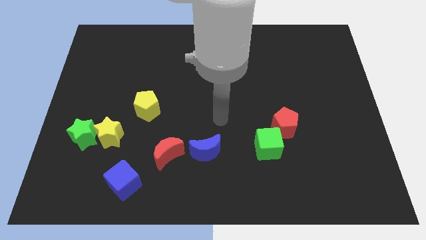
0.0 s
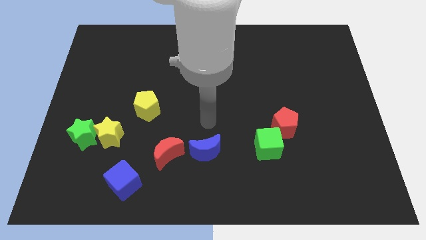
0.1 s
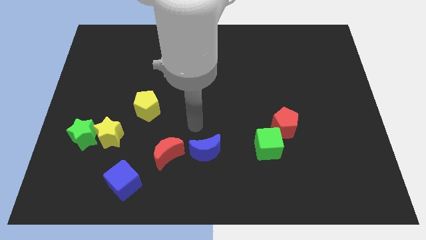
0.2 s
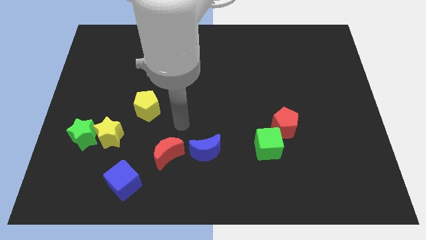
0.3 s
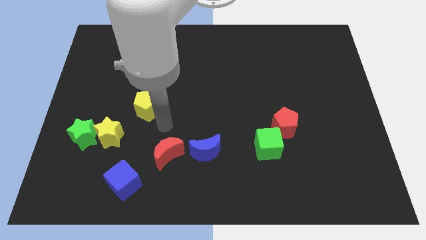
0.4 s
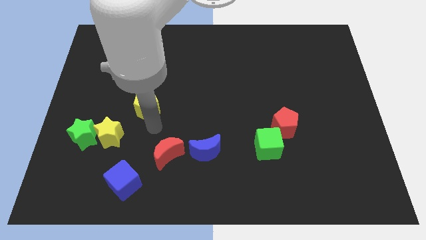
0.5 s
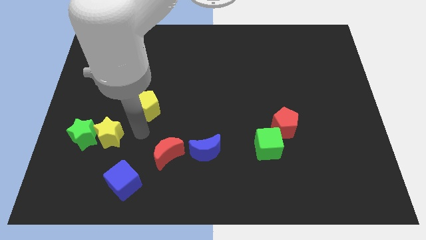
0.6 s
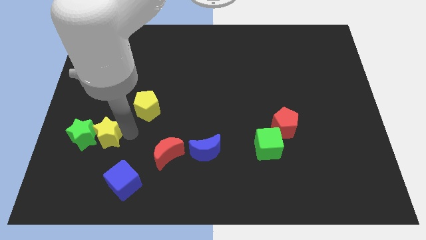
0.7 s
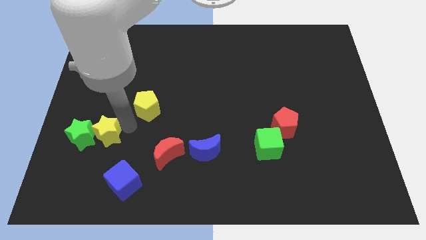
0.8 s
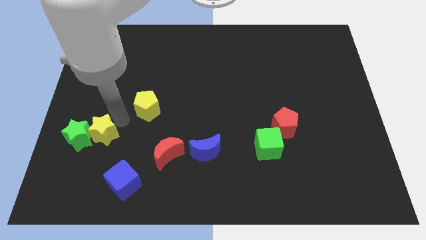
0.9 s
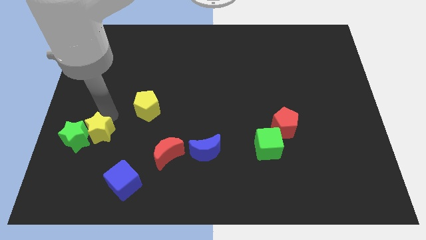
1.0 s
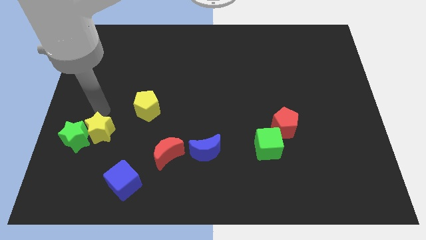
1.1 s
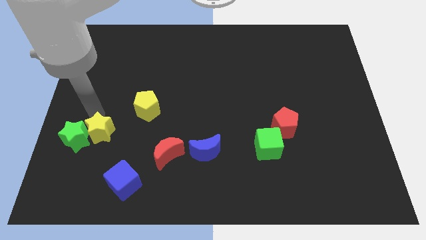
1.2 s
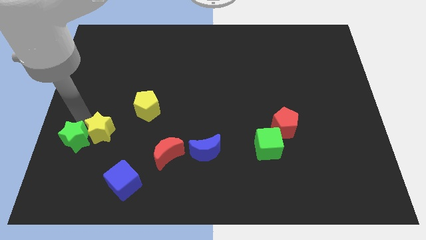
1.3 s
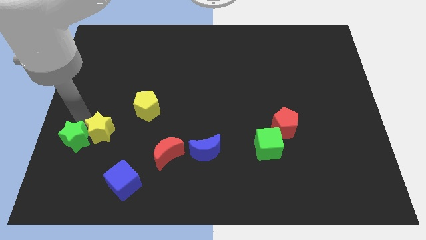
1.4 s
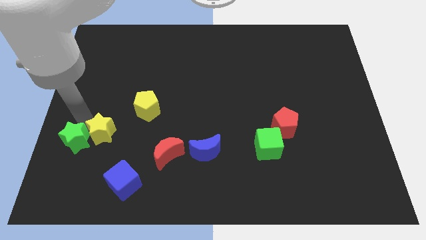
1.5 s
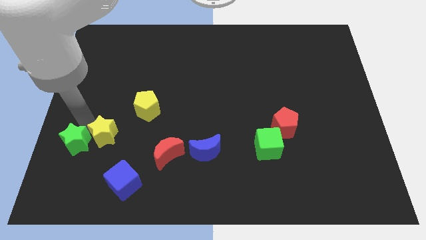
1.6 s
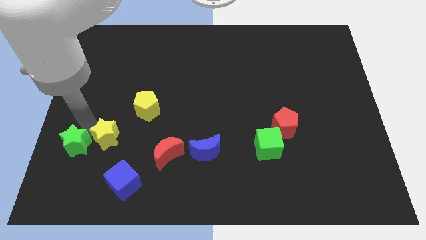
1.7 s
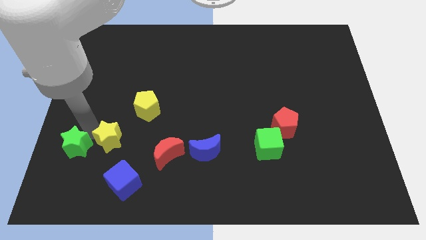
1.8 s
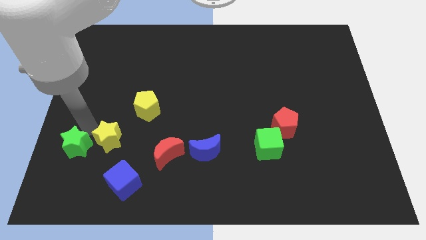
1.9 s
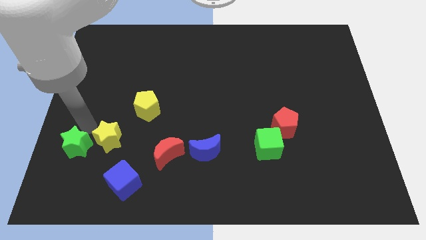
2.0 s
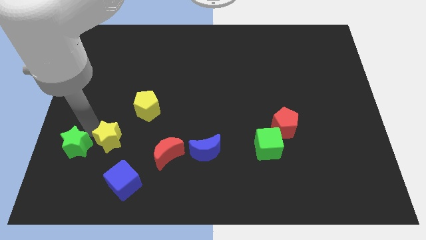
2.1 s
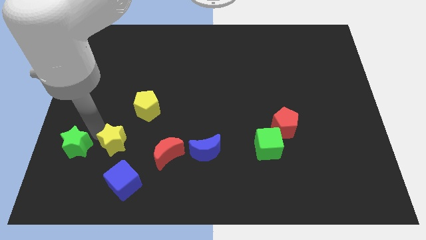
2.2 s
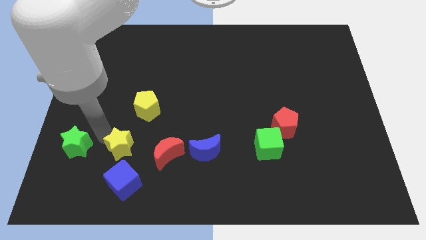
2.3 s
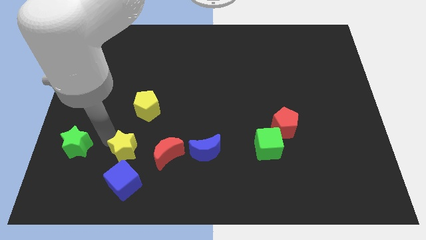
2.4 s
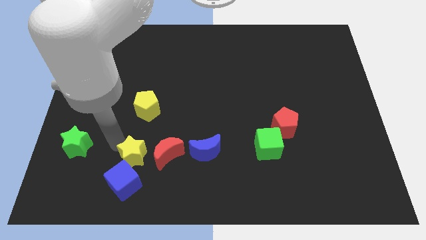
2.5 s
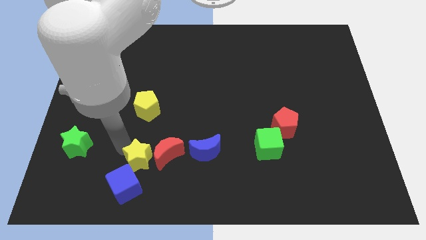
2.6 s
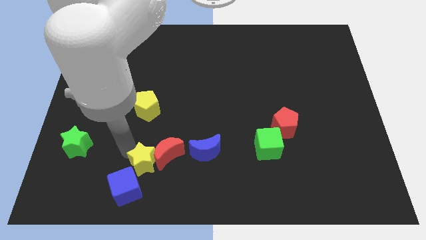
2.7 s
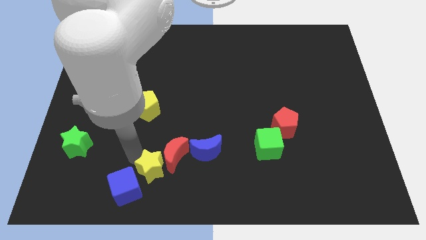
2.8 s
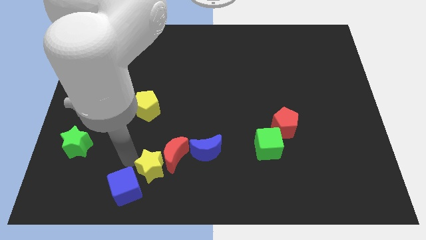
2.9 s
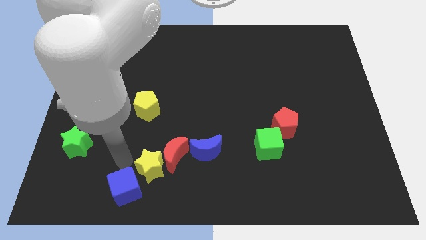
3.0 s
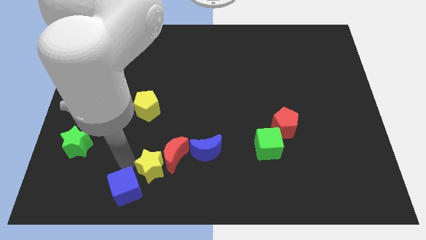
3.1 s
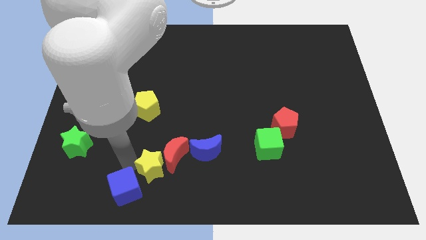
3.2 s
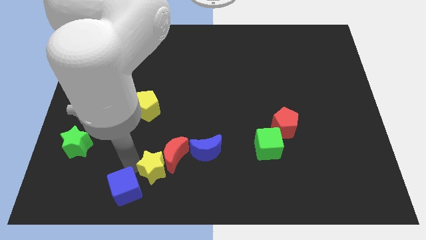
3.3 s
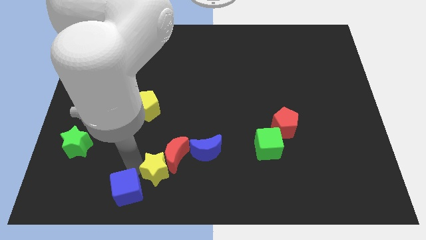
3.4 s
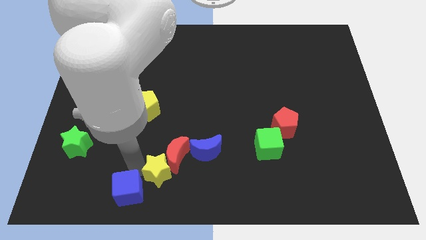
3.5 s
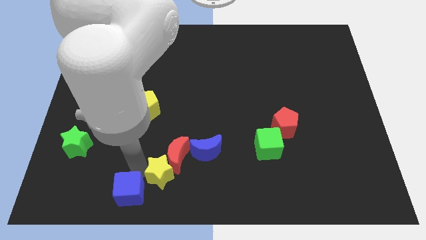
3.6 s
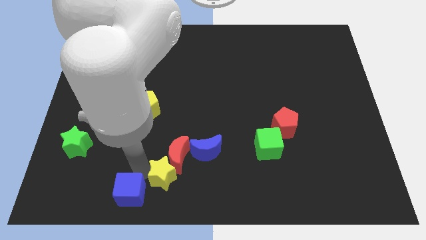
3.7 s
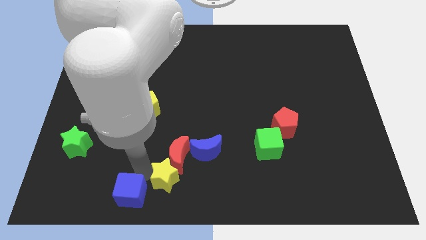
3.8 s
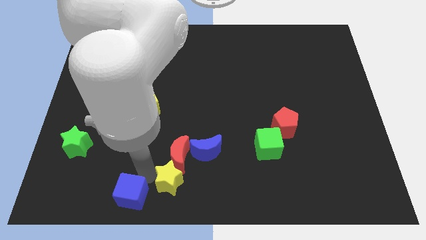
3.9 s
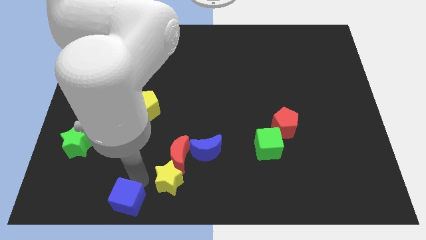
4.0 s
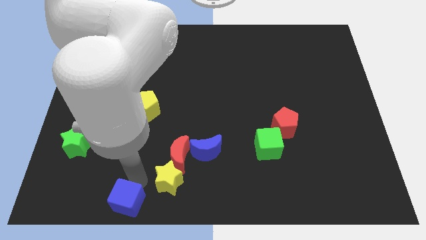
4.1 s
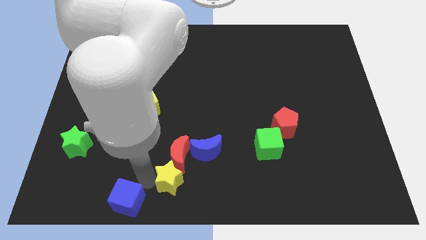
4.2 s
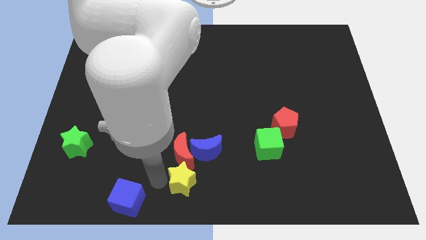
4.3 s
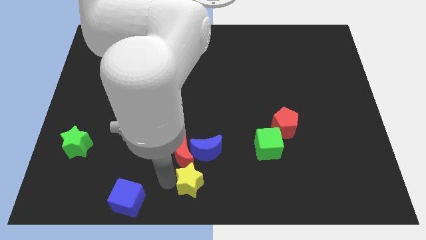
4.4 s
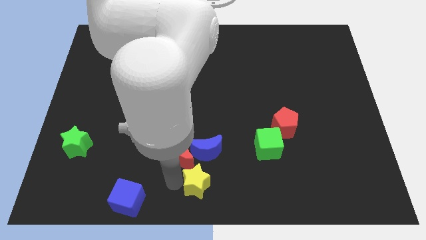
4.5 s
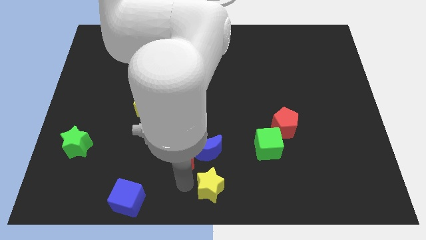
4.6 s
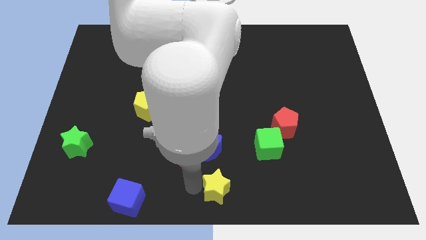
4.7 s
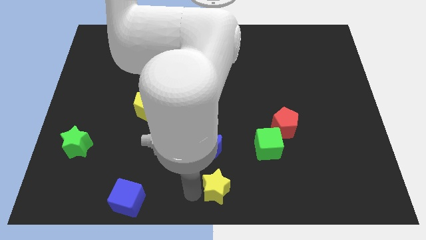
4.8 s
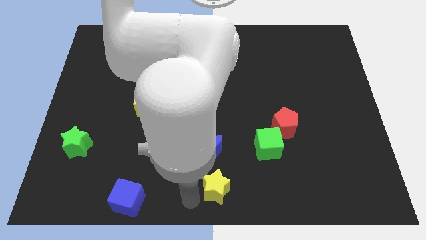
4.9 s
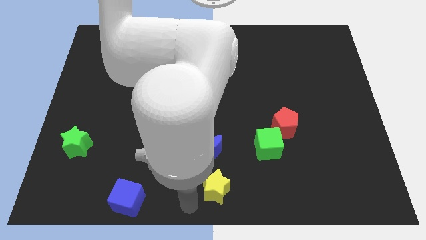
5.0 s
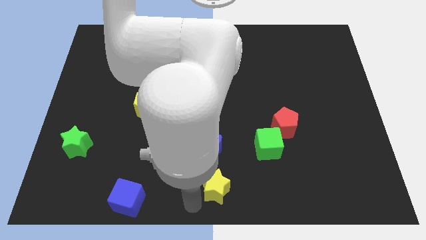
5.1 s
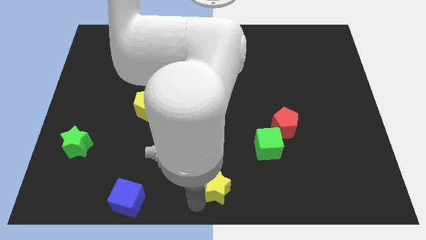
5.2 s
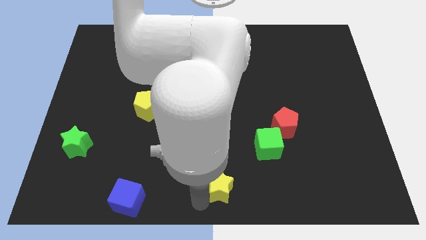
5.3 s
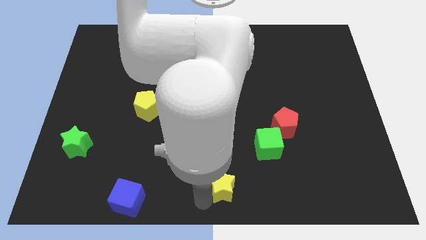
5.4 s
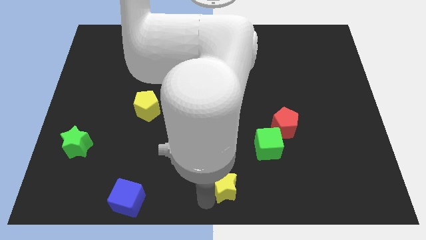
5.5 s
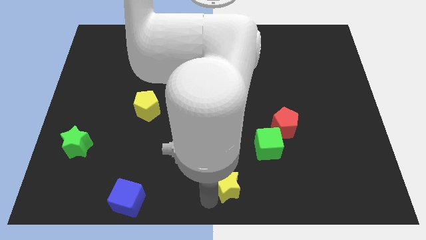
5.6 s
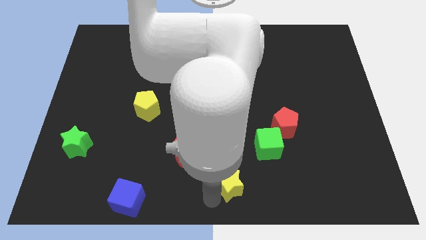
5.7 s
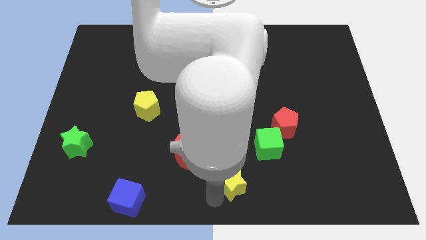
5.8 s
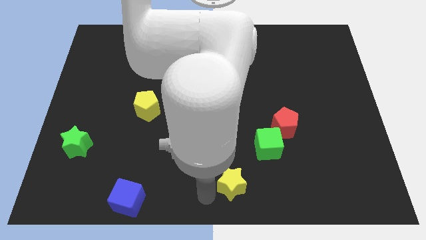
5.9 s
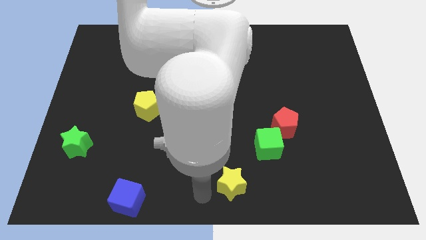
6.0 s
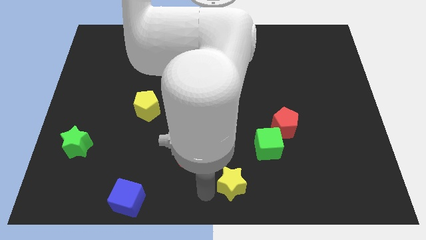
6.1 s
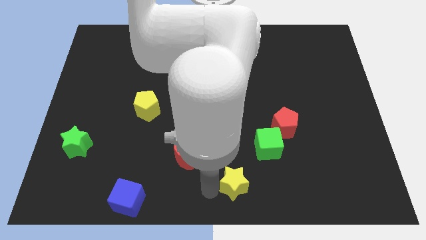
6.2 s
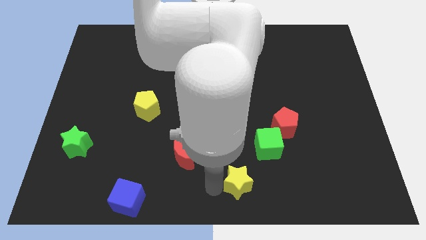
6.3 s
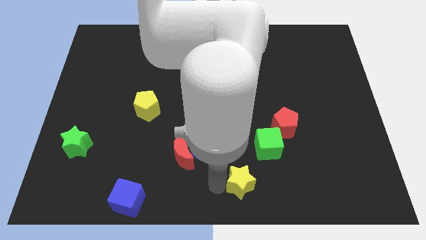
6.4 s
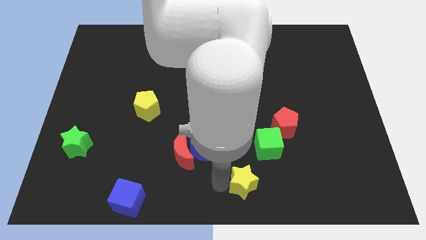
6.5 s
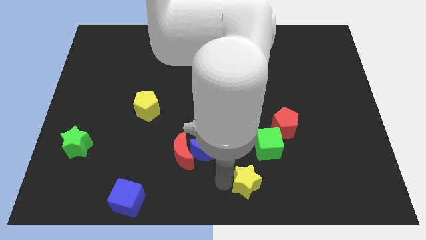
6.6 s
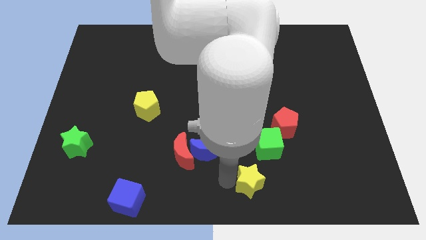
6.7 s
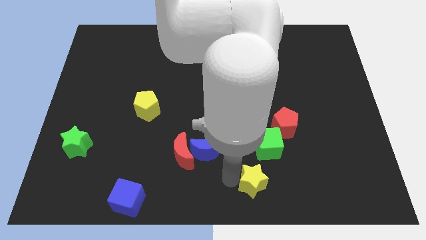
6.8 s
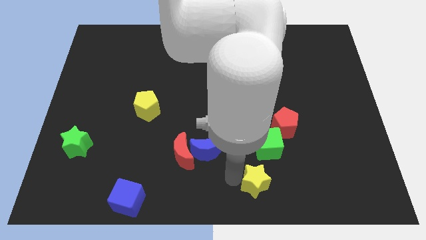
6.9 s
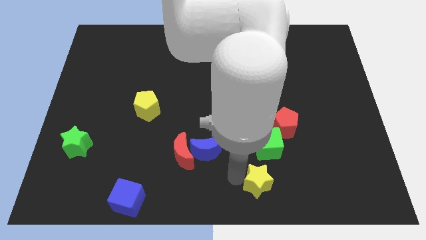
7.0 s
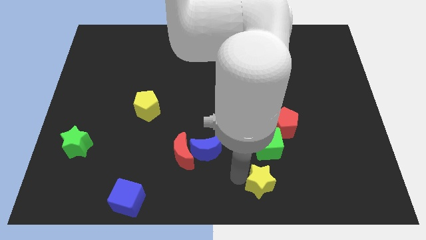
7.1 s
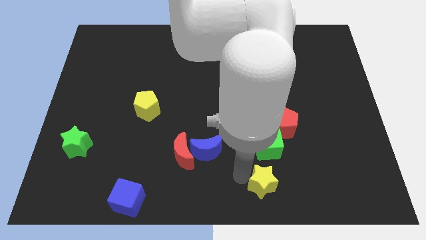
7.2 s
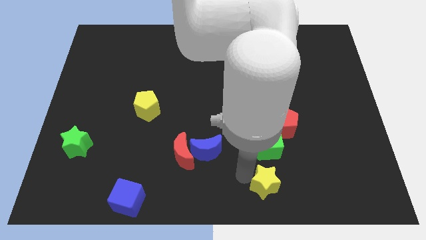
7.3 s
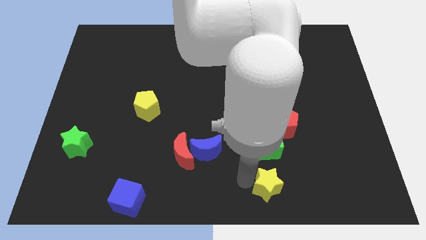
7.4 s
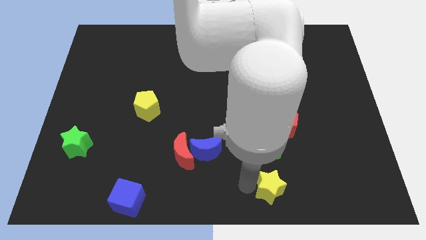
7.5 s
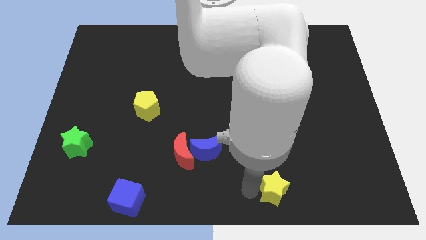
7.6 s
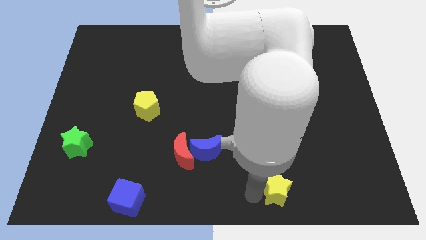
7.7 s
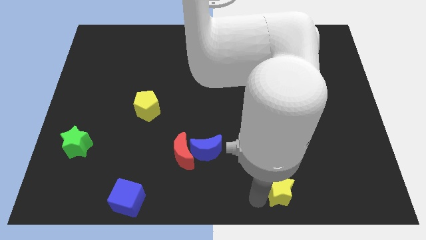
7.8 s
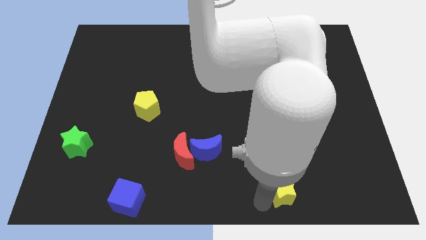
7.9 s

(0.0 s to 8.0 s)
move the yellow star to the bottom of the red pentagon

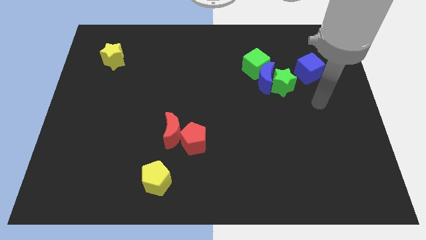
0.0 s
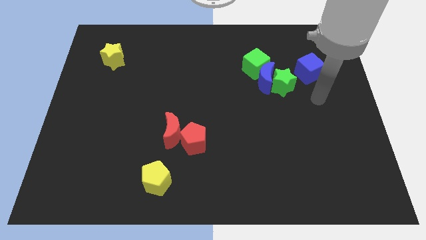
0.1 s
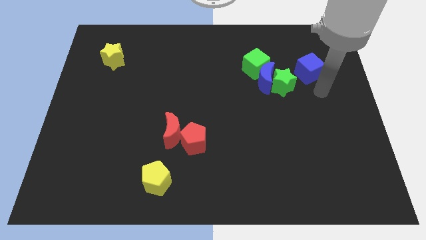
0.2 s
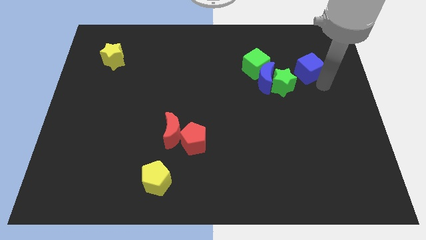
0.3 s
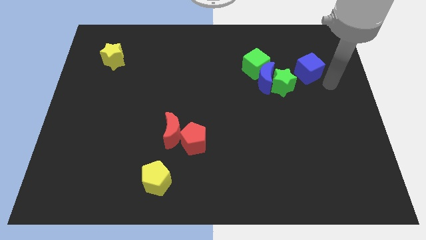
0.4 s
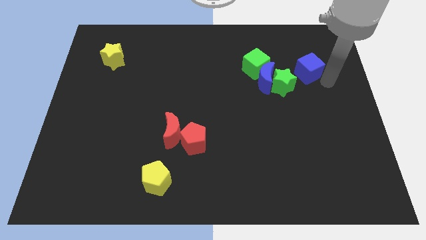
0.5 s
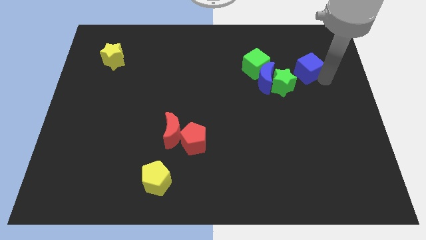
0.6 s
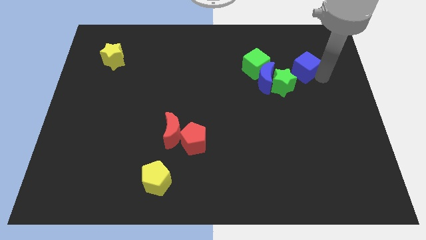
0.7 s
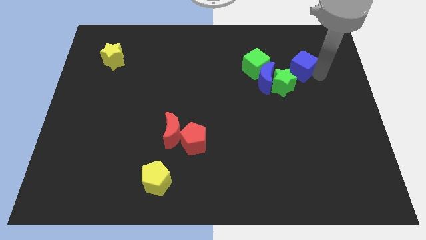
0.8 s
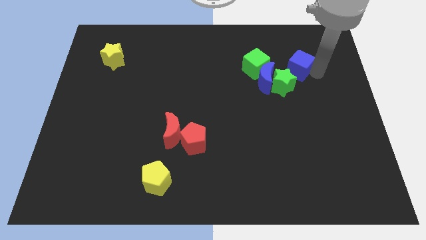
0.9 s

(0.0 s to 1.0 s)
slide the blue cube above the green star
